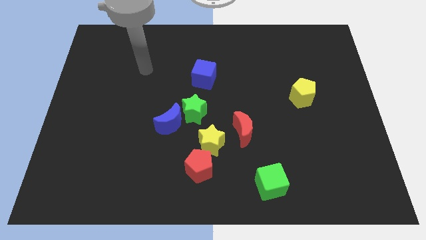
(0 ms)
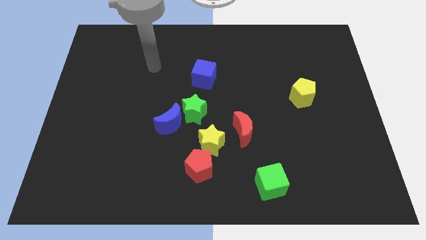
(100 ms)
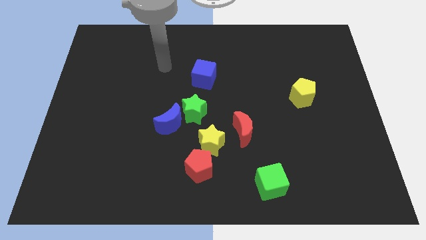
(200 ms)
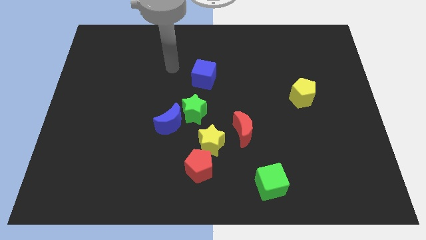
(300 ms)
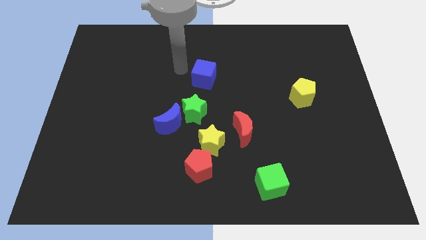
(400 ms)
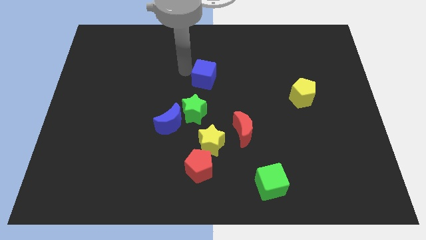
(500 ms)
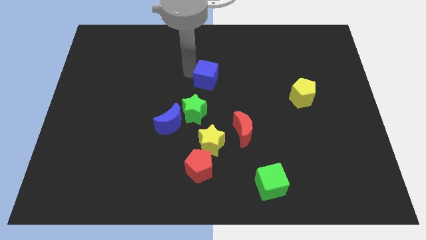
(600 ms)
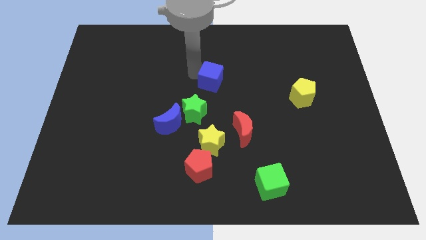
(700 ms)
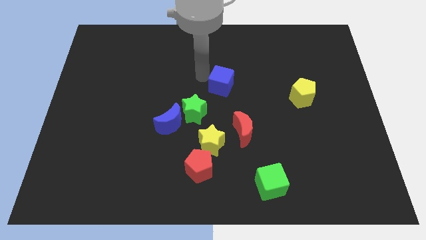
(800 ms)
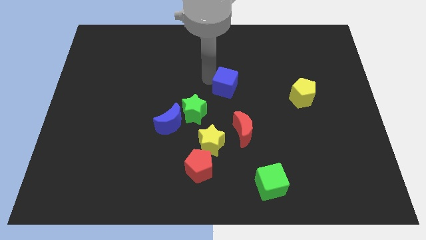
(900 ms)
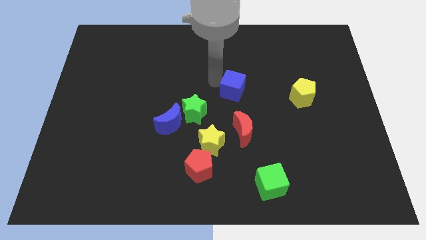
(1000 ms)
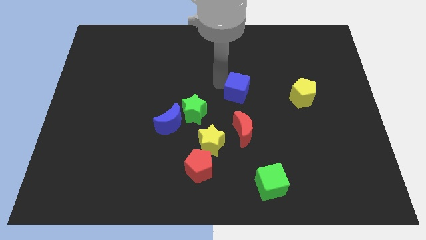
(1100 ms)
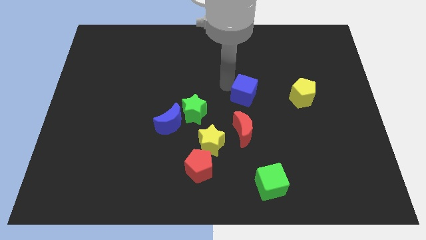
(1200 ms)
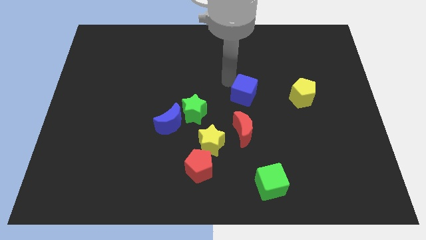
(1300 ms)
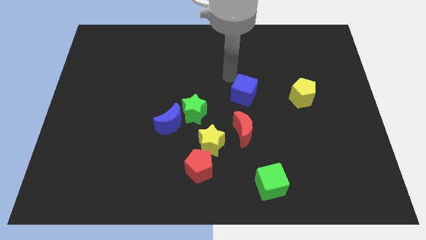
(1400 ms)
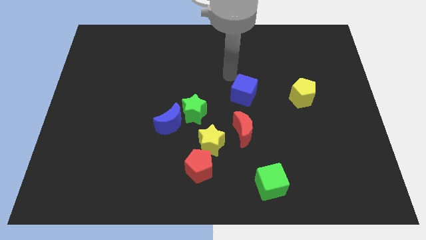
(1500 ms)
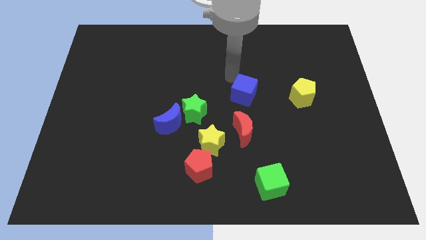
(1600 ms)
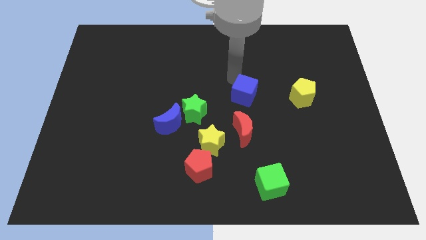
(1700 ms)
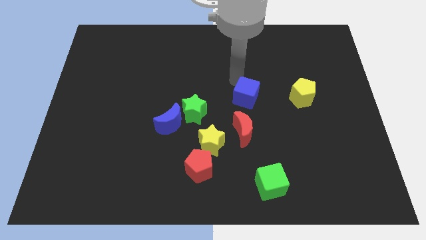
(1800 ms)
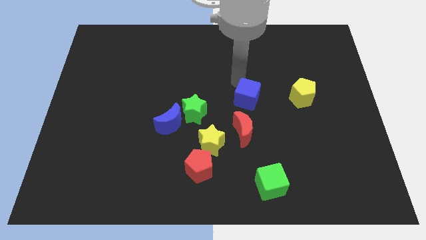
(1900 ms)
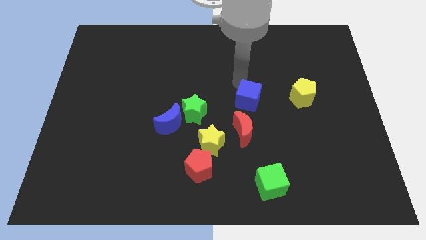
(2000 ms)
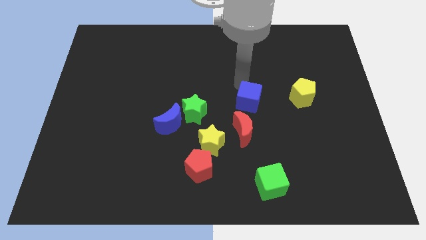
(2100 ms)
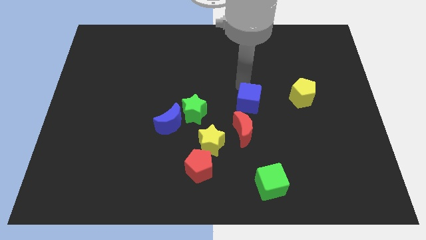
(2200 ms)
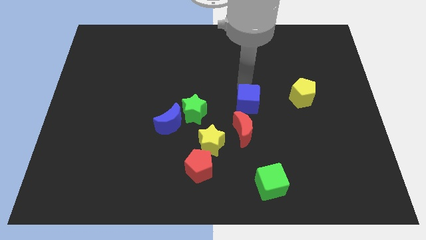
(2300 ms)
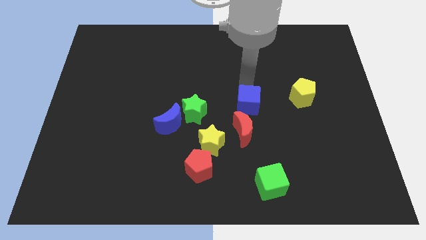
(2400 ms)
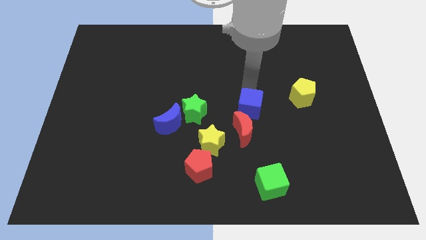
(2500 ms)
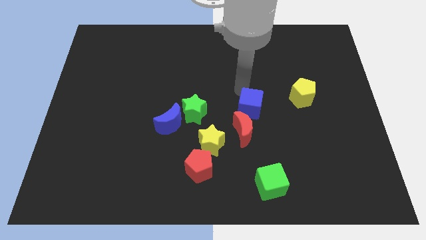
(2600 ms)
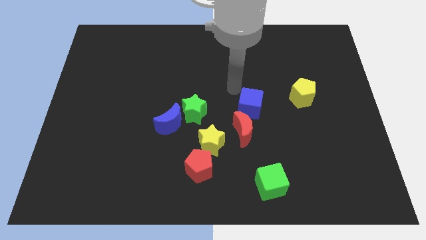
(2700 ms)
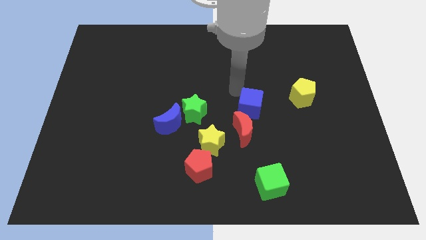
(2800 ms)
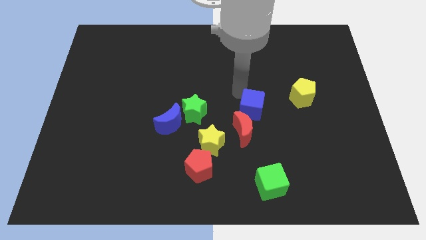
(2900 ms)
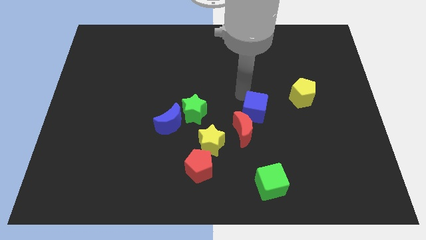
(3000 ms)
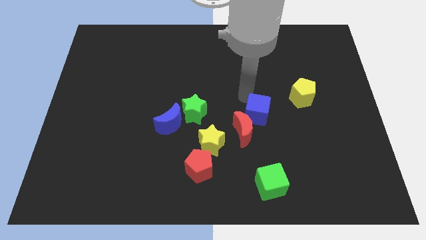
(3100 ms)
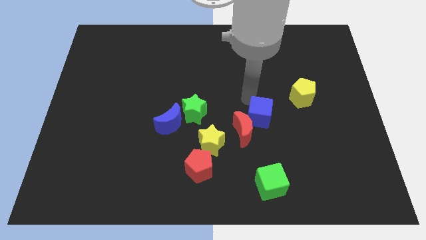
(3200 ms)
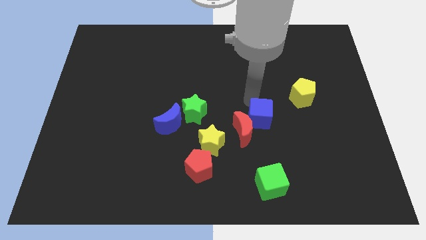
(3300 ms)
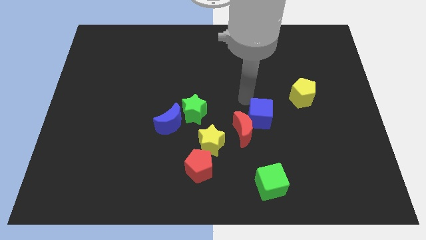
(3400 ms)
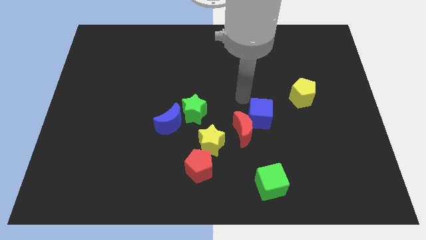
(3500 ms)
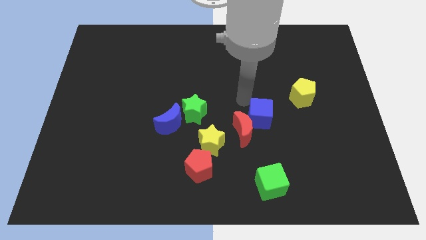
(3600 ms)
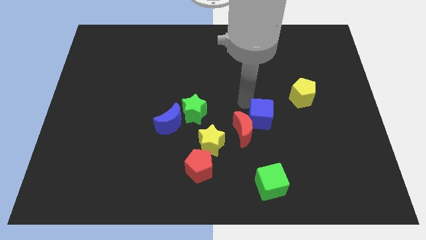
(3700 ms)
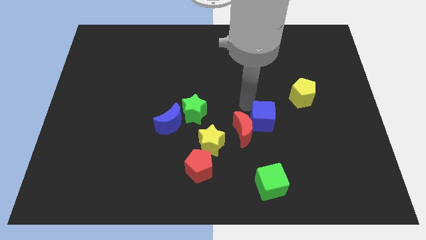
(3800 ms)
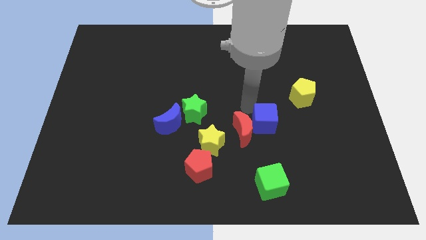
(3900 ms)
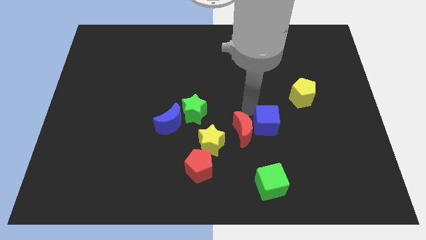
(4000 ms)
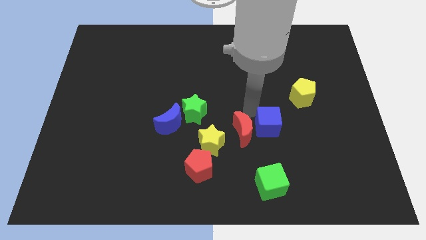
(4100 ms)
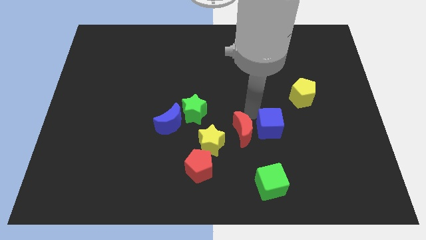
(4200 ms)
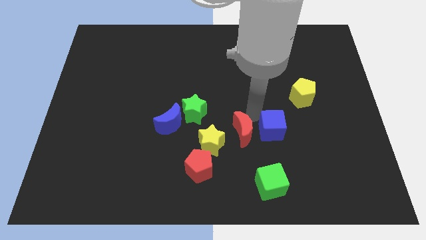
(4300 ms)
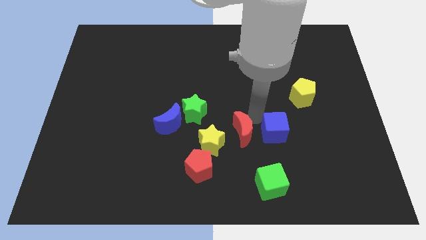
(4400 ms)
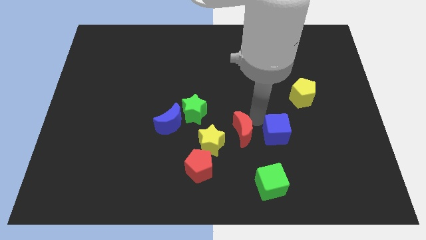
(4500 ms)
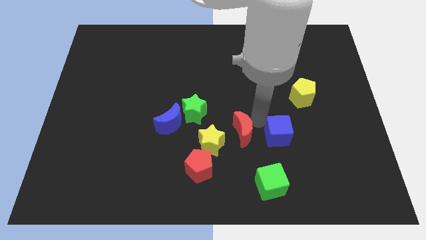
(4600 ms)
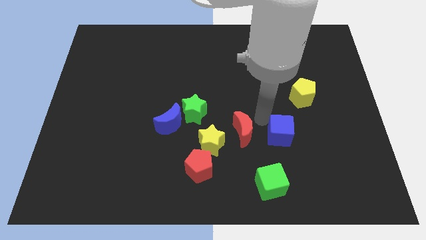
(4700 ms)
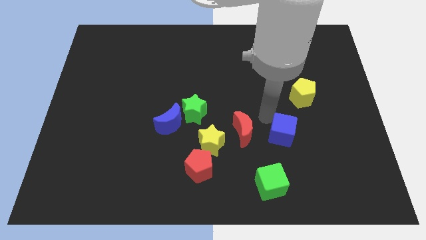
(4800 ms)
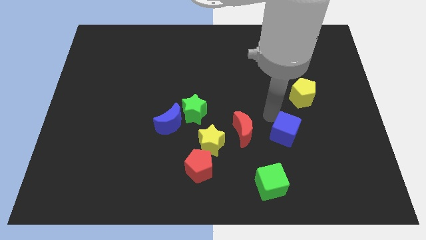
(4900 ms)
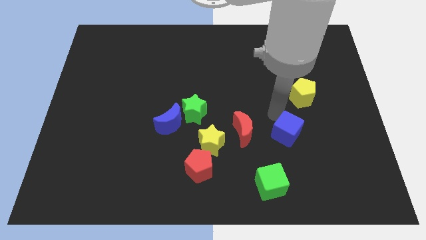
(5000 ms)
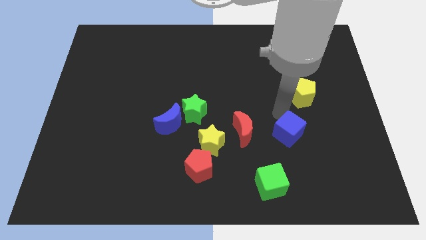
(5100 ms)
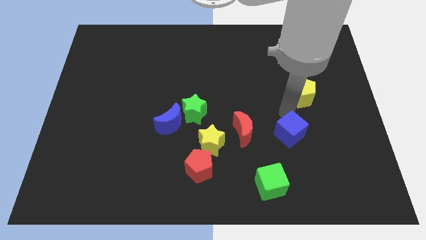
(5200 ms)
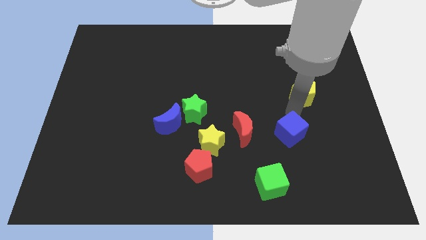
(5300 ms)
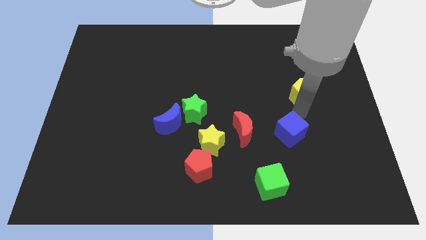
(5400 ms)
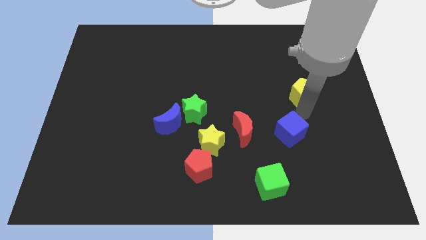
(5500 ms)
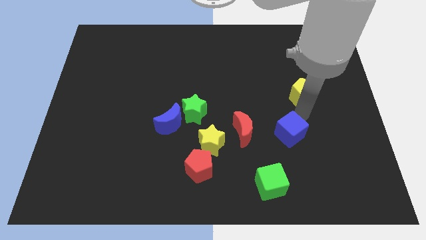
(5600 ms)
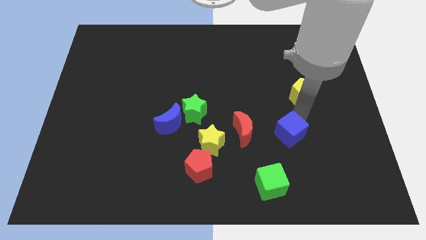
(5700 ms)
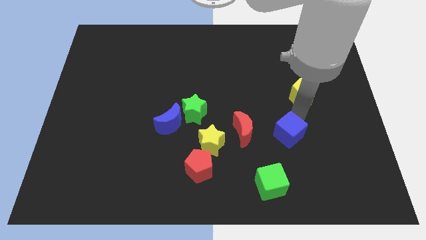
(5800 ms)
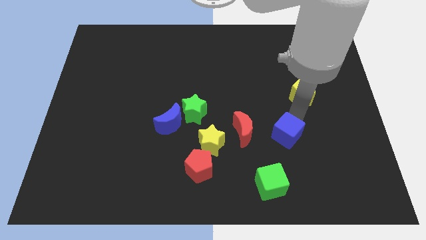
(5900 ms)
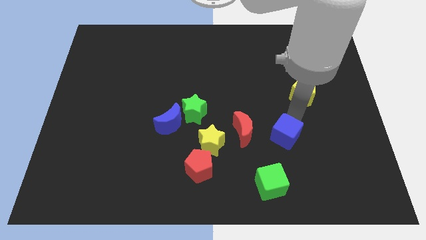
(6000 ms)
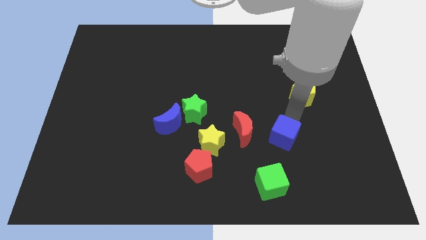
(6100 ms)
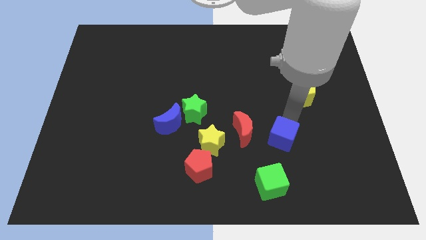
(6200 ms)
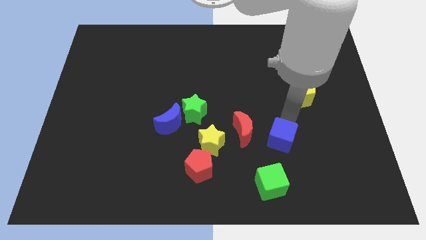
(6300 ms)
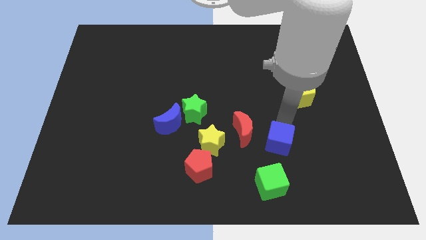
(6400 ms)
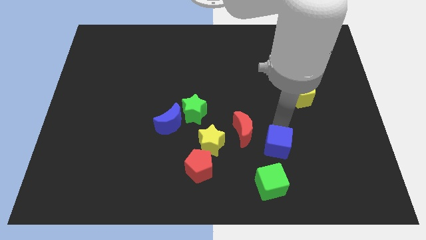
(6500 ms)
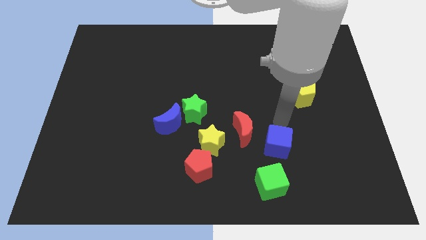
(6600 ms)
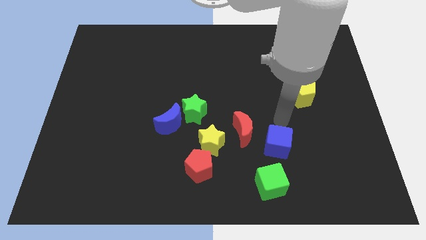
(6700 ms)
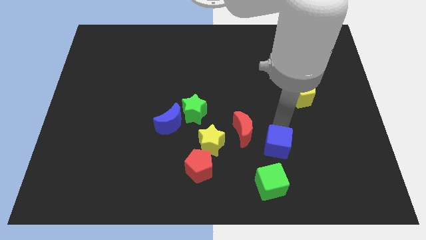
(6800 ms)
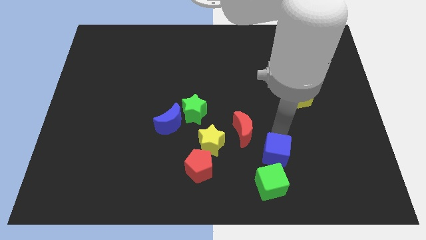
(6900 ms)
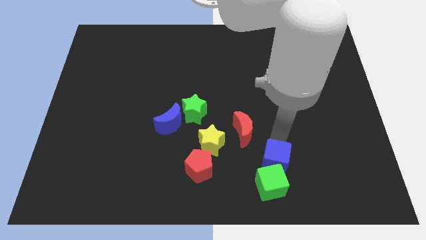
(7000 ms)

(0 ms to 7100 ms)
move the blue cube to the green cube

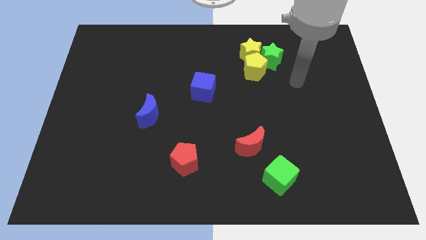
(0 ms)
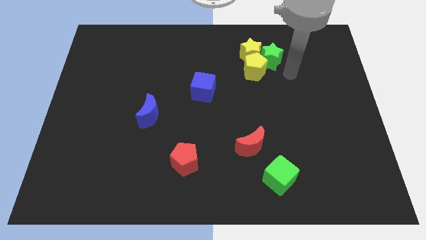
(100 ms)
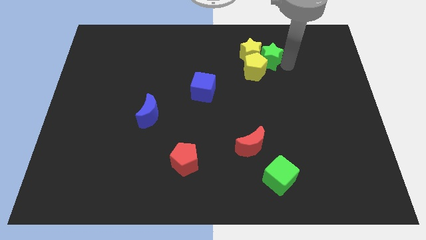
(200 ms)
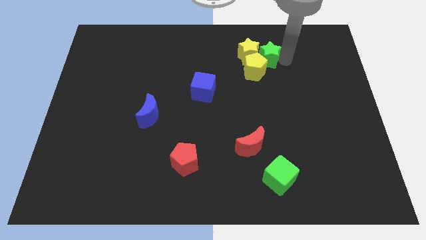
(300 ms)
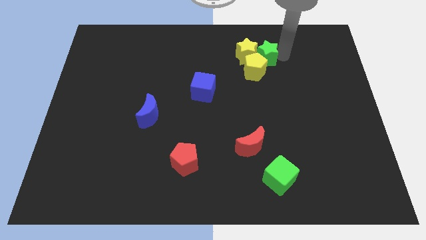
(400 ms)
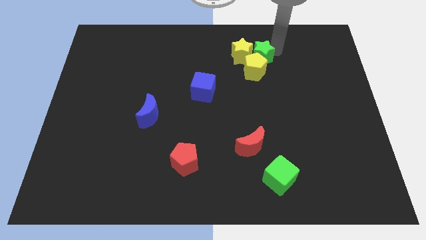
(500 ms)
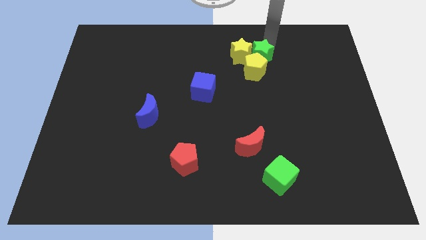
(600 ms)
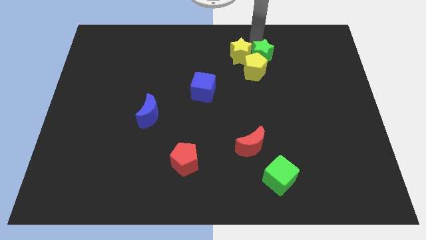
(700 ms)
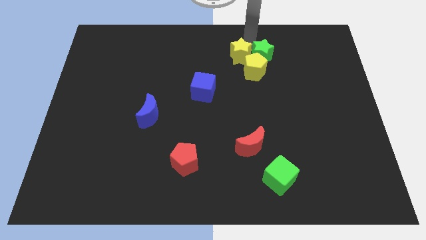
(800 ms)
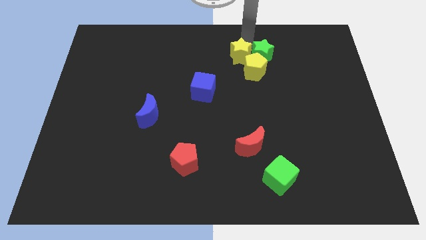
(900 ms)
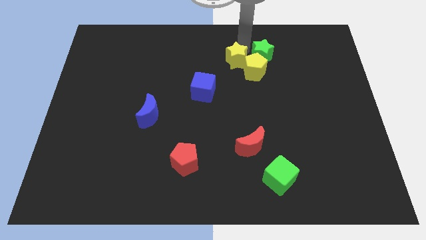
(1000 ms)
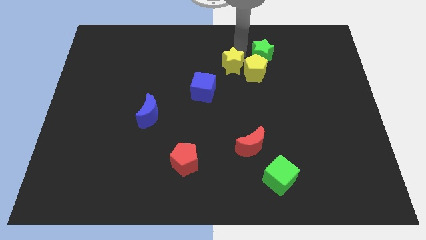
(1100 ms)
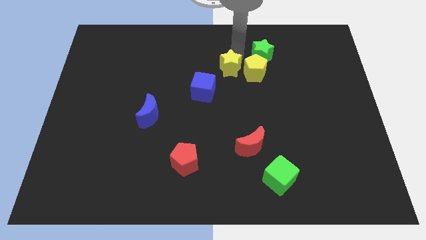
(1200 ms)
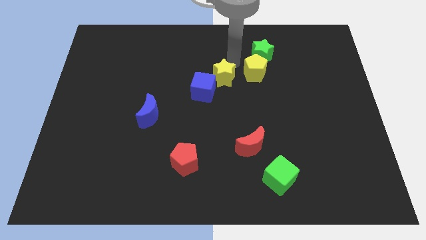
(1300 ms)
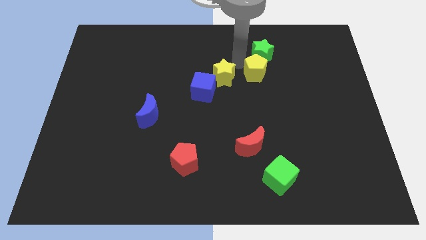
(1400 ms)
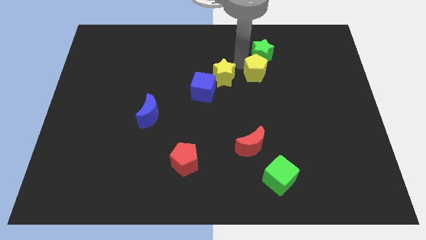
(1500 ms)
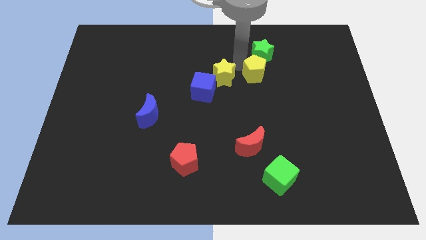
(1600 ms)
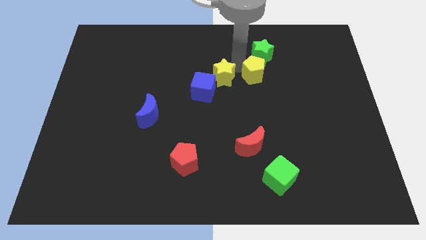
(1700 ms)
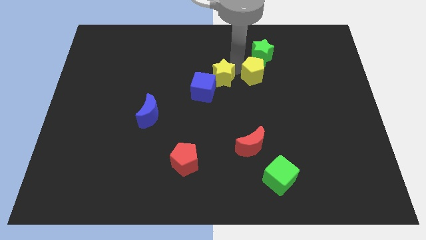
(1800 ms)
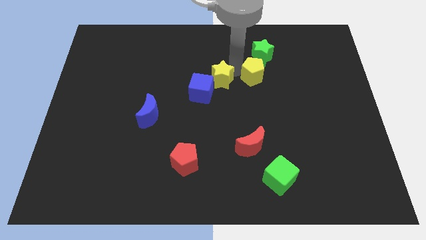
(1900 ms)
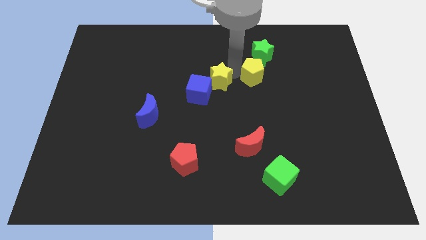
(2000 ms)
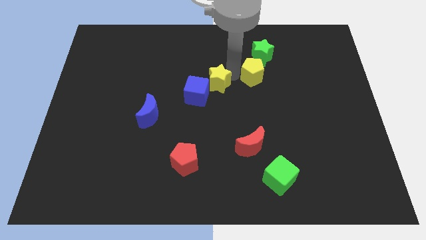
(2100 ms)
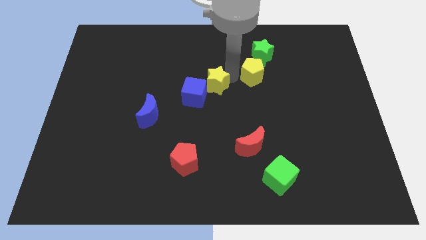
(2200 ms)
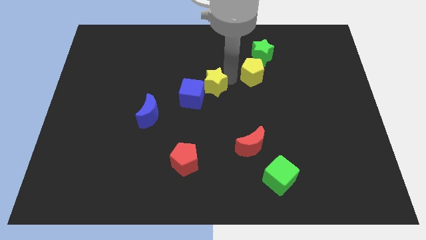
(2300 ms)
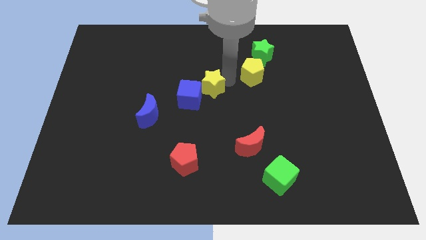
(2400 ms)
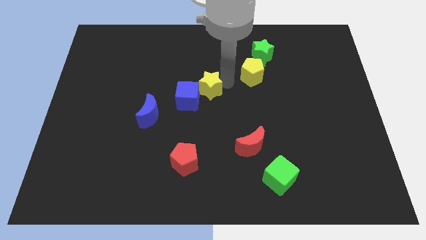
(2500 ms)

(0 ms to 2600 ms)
move the yellow star to the blue cube
